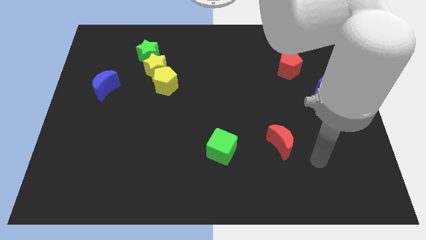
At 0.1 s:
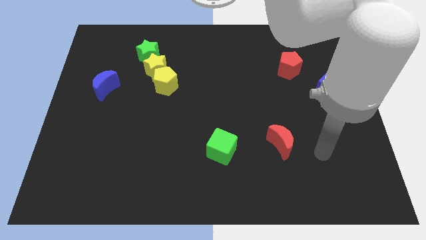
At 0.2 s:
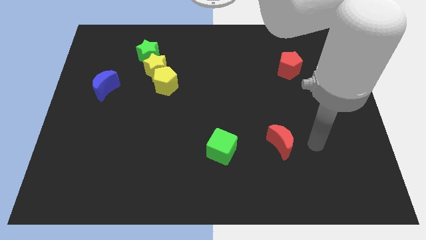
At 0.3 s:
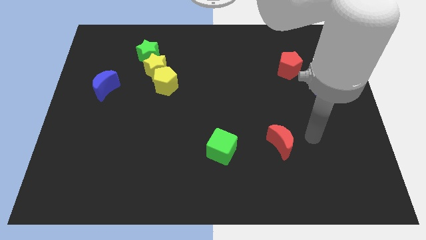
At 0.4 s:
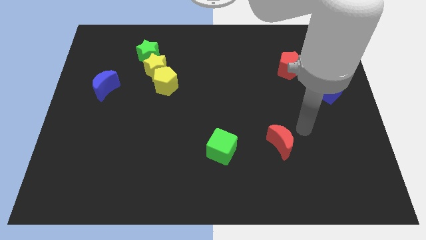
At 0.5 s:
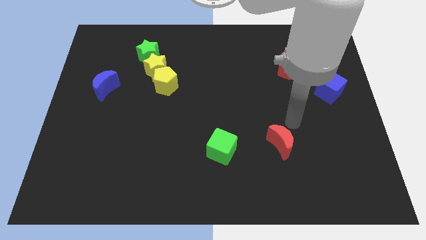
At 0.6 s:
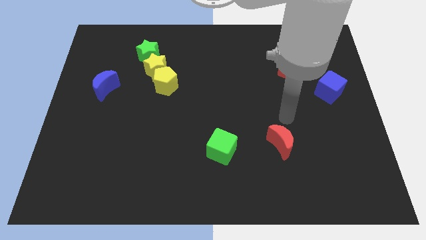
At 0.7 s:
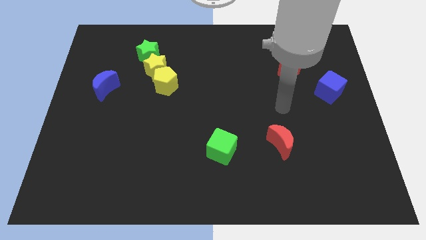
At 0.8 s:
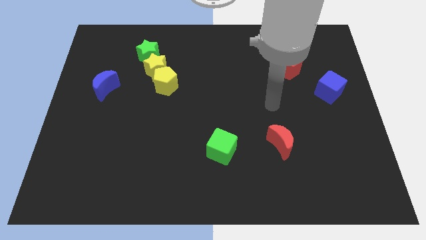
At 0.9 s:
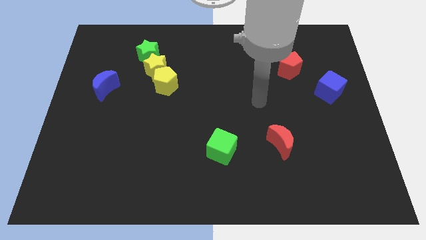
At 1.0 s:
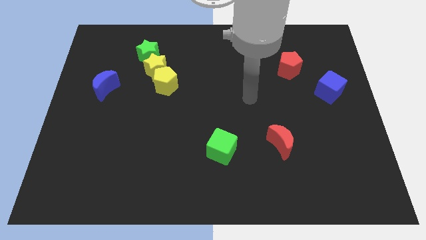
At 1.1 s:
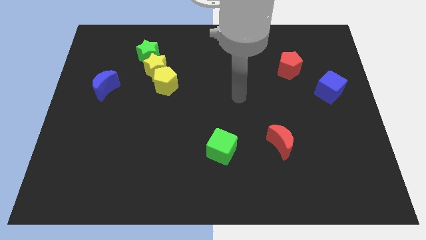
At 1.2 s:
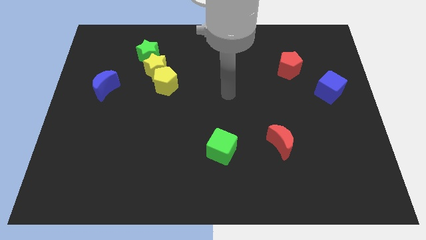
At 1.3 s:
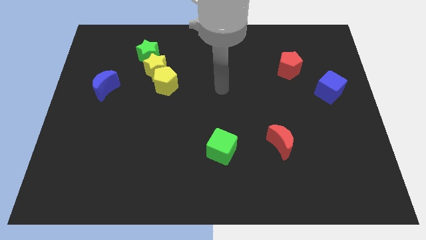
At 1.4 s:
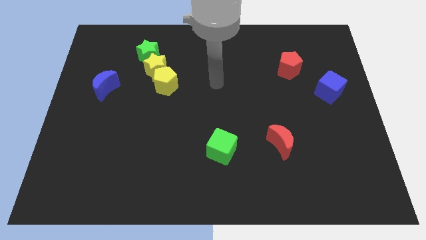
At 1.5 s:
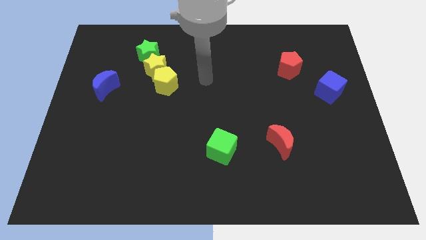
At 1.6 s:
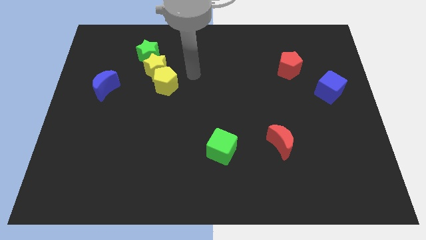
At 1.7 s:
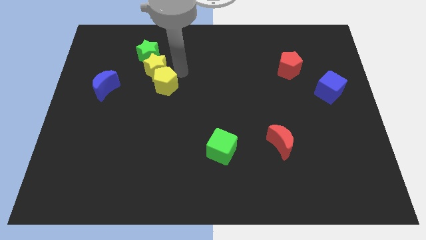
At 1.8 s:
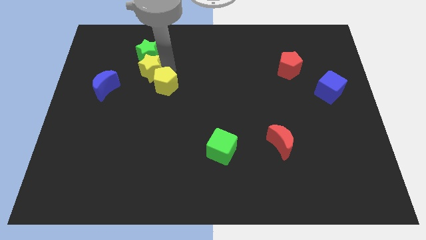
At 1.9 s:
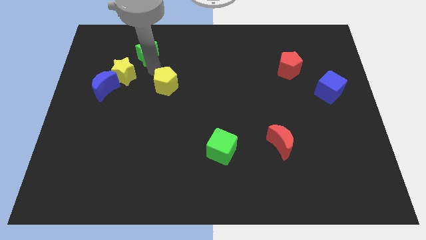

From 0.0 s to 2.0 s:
separate the yellow pentagon from the yellow star

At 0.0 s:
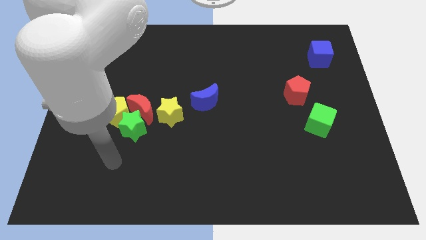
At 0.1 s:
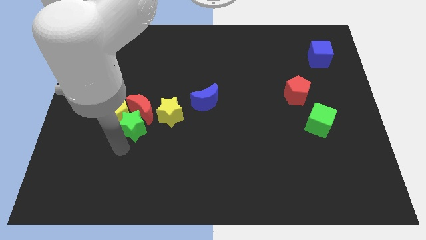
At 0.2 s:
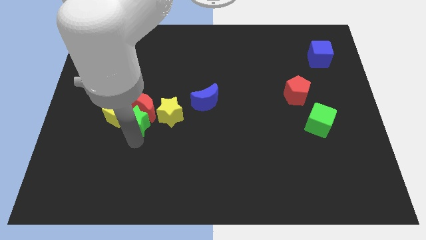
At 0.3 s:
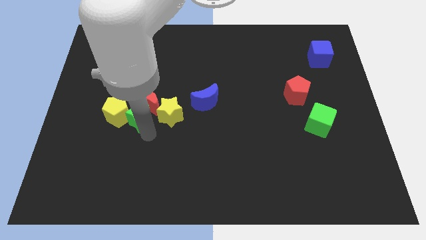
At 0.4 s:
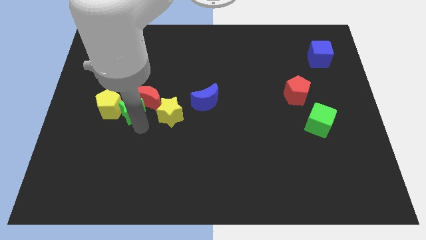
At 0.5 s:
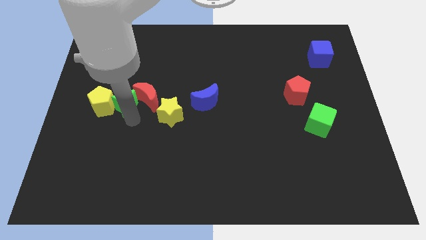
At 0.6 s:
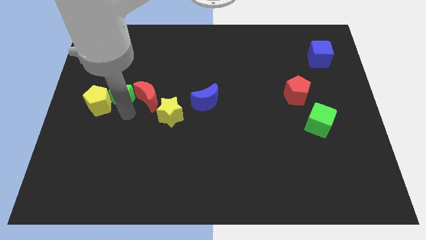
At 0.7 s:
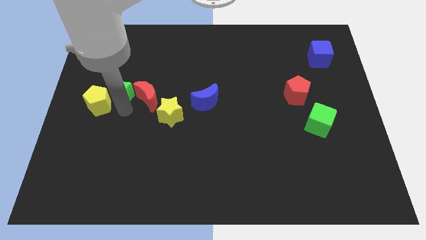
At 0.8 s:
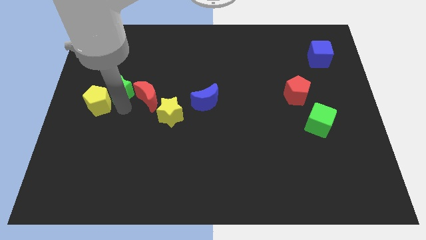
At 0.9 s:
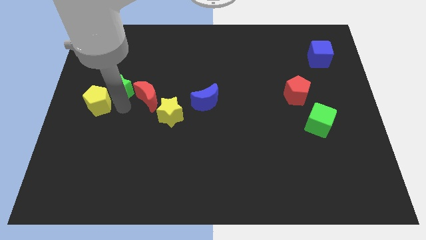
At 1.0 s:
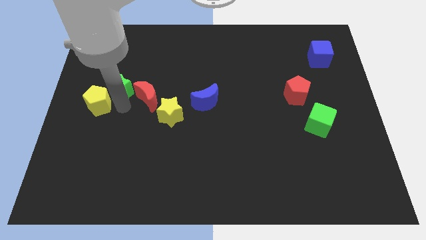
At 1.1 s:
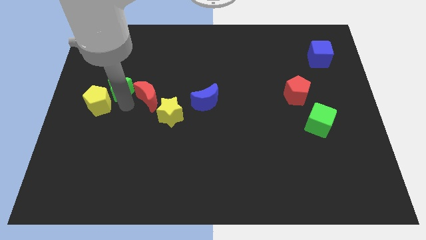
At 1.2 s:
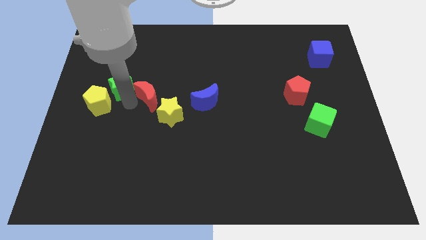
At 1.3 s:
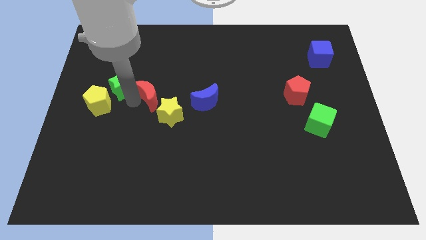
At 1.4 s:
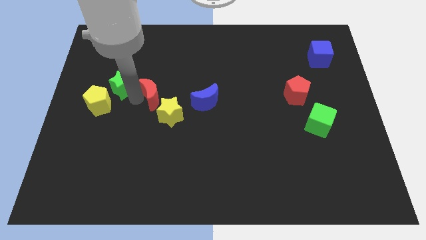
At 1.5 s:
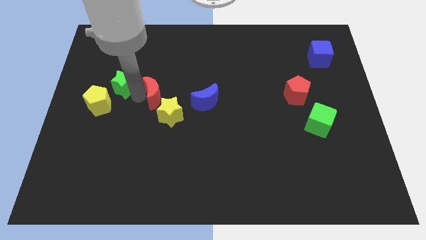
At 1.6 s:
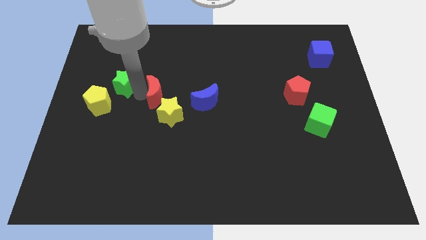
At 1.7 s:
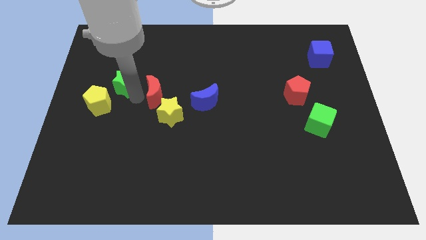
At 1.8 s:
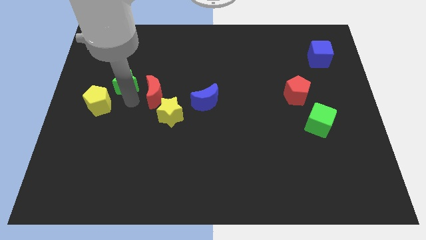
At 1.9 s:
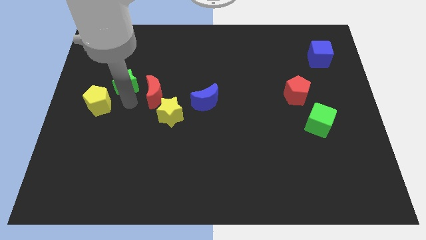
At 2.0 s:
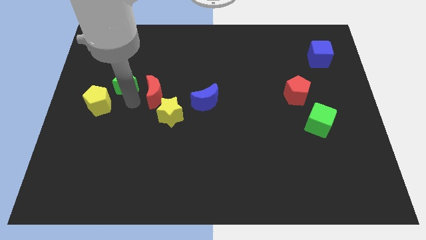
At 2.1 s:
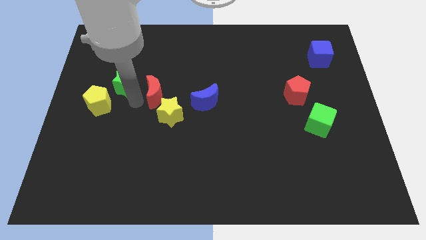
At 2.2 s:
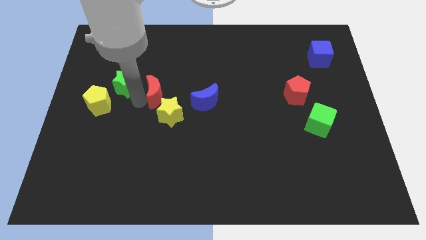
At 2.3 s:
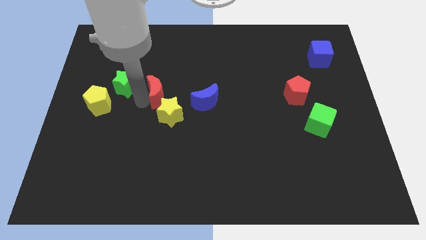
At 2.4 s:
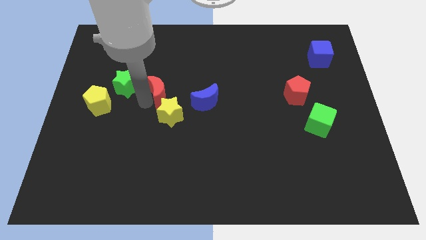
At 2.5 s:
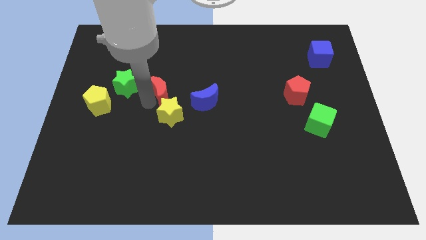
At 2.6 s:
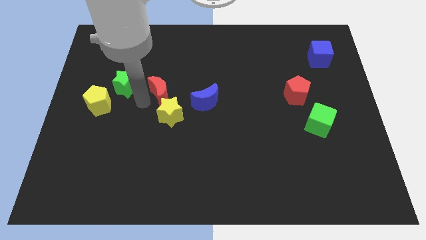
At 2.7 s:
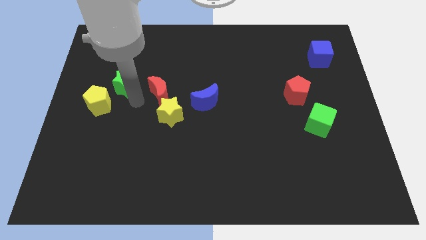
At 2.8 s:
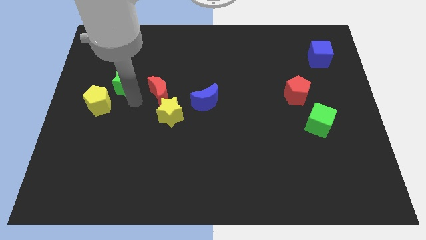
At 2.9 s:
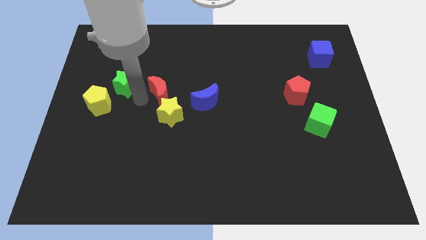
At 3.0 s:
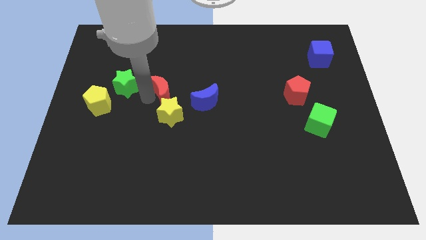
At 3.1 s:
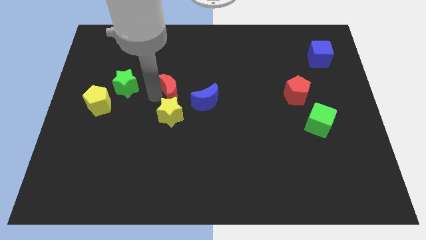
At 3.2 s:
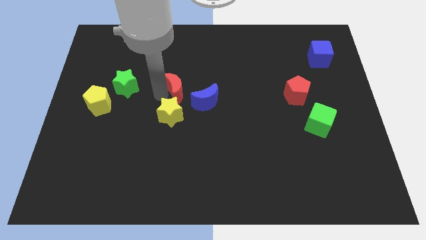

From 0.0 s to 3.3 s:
separate the red moon from the green star, yellow pentagon, and yellow star

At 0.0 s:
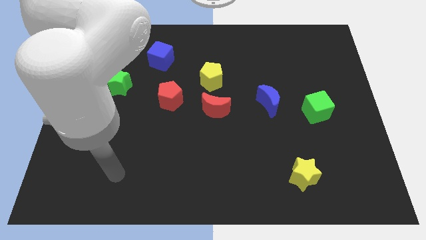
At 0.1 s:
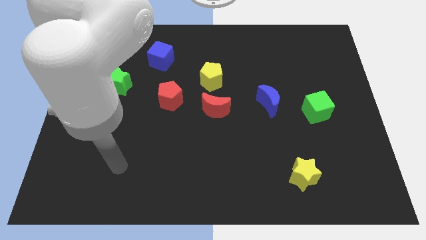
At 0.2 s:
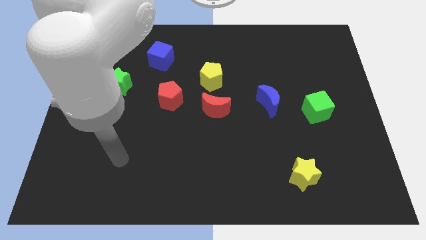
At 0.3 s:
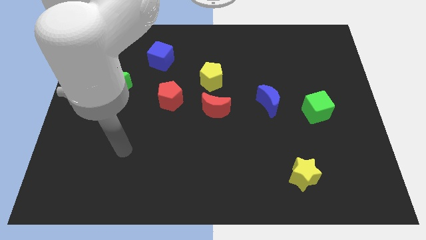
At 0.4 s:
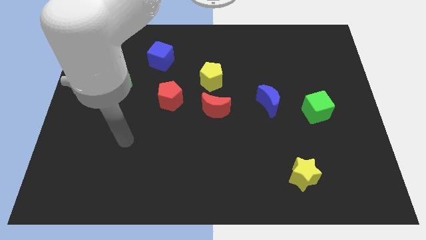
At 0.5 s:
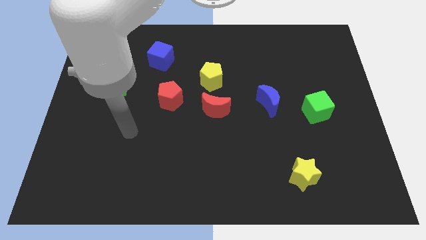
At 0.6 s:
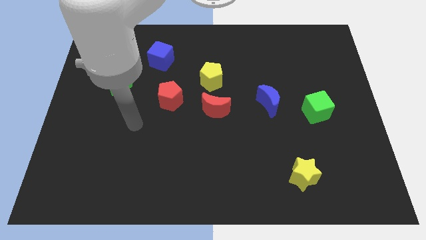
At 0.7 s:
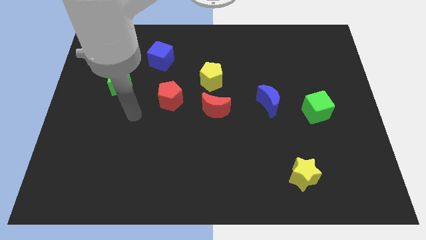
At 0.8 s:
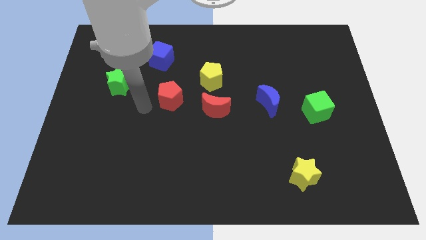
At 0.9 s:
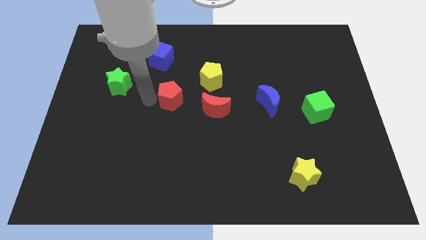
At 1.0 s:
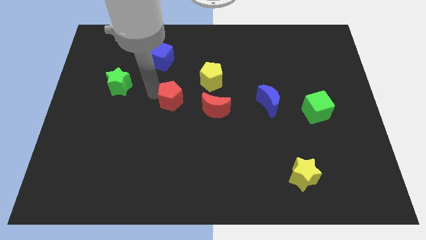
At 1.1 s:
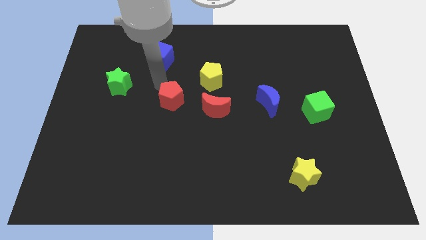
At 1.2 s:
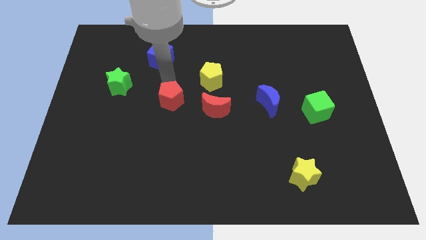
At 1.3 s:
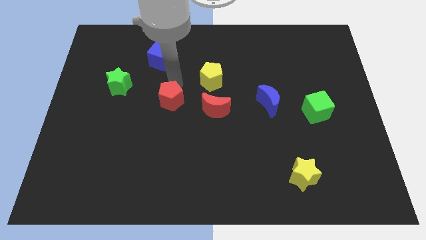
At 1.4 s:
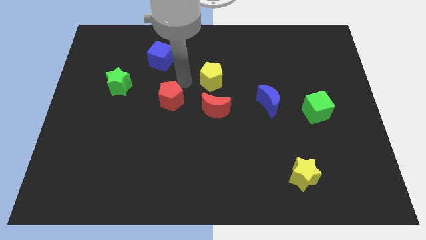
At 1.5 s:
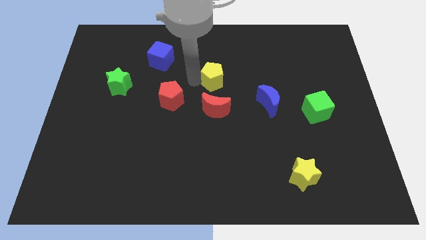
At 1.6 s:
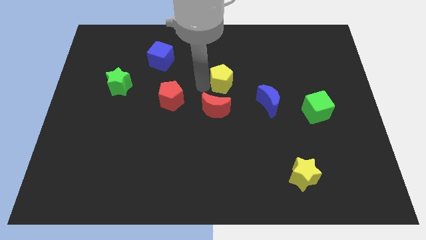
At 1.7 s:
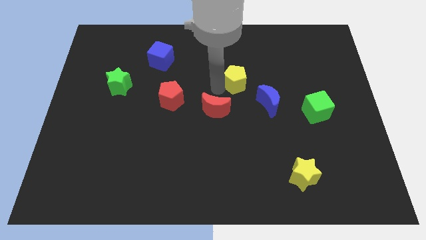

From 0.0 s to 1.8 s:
move the red moon away from the yellow pentagon

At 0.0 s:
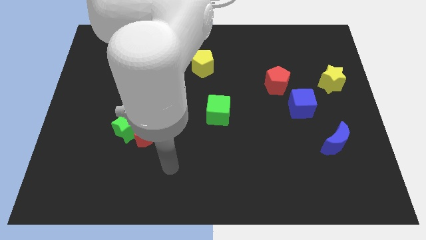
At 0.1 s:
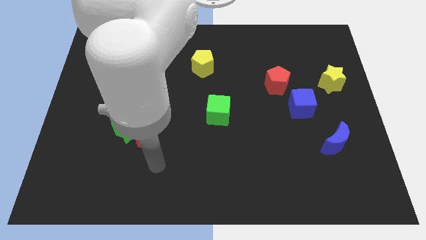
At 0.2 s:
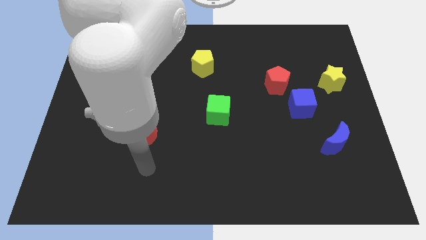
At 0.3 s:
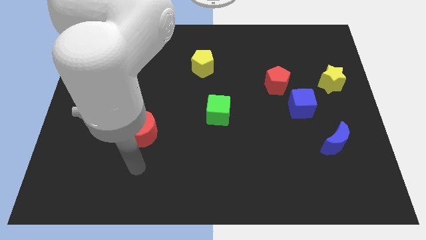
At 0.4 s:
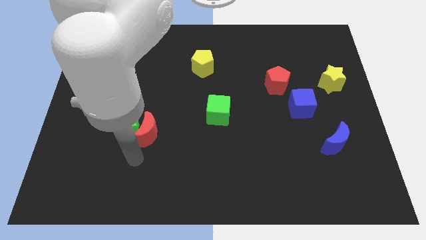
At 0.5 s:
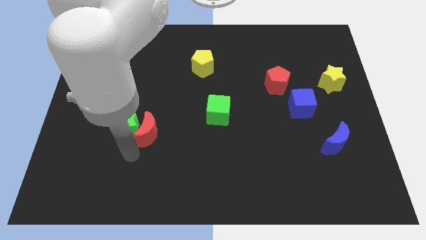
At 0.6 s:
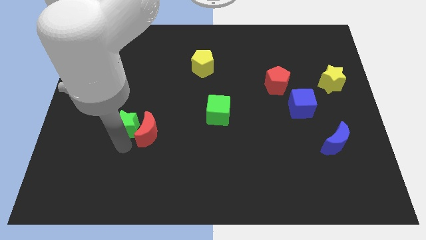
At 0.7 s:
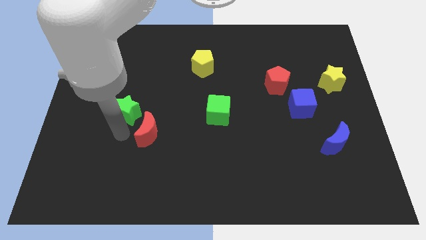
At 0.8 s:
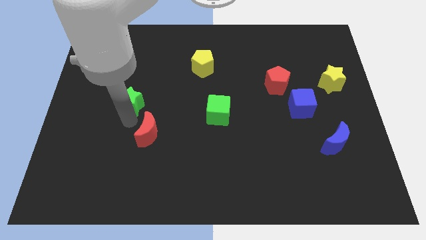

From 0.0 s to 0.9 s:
separate the red moon from the green star

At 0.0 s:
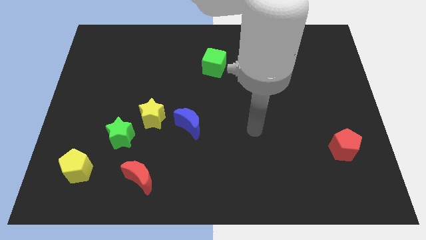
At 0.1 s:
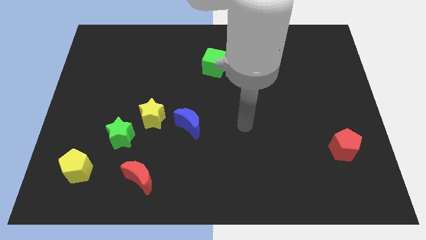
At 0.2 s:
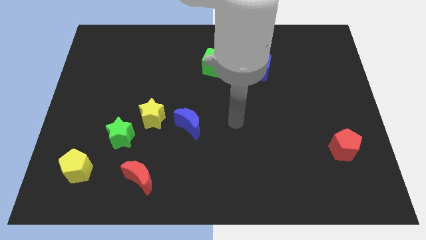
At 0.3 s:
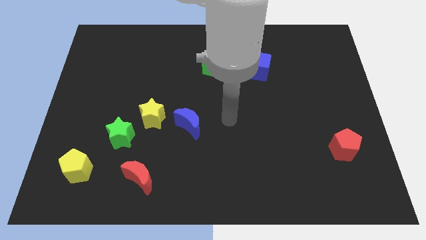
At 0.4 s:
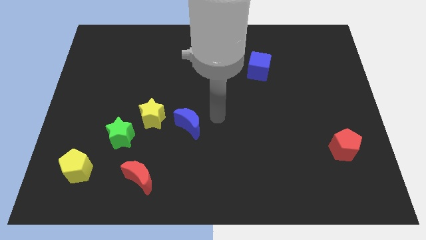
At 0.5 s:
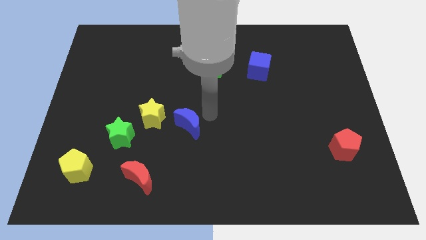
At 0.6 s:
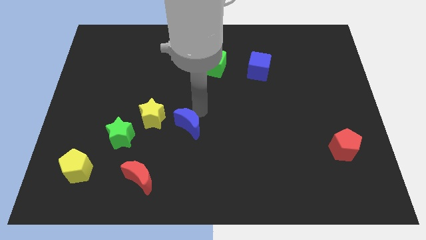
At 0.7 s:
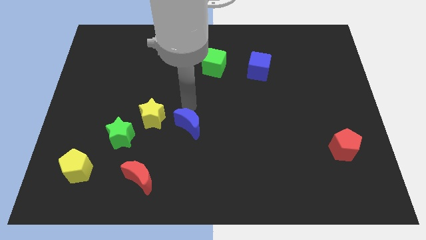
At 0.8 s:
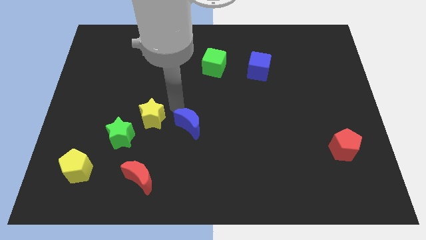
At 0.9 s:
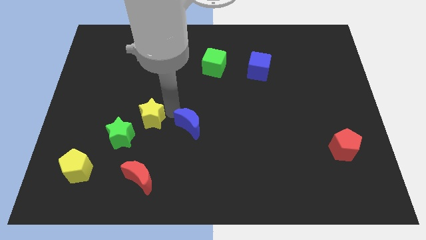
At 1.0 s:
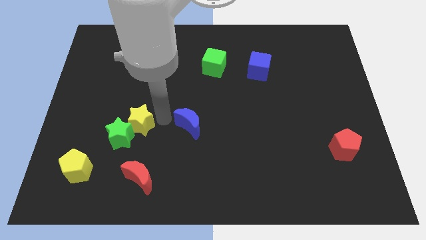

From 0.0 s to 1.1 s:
pull the blue moon apart from the yellow star

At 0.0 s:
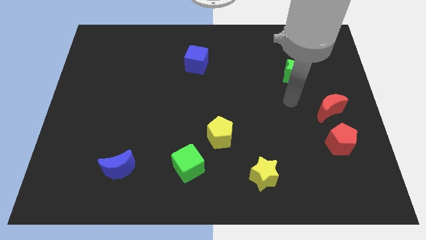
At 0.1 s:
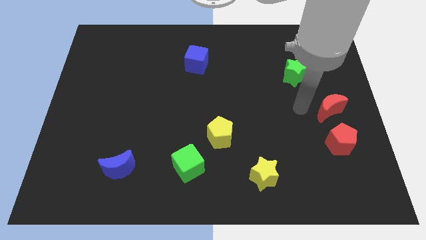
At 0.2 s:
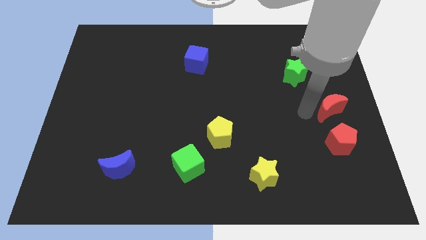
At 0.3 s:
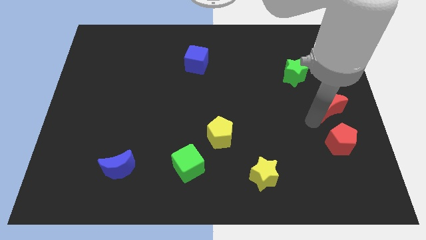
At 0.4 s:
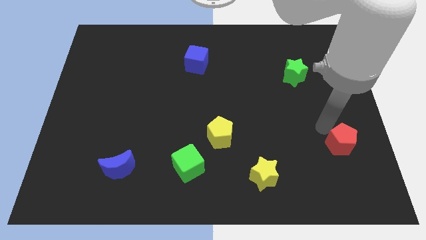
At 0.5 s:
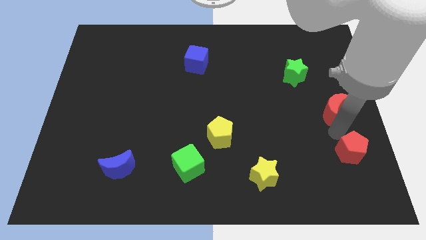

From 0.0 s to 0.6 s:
pull the red moon apart from the red pentagon
